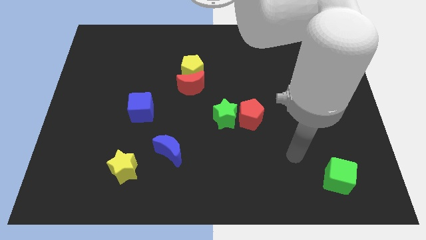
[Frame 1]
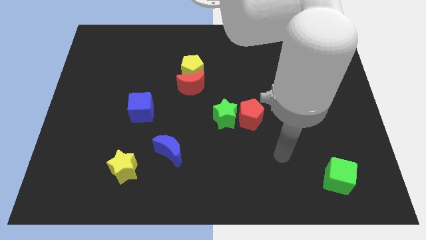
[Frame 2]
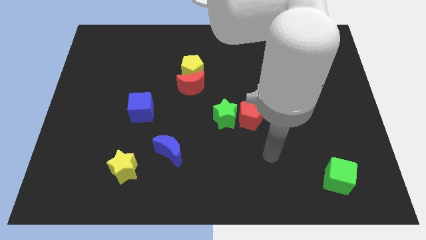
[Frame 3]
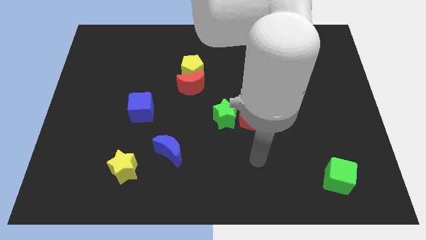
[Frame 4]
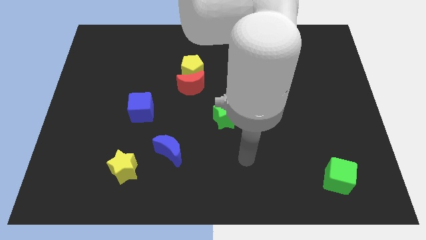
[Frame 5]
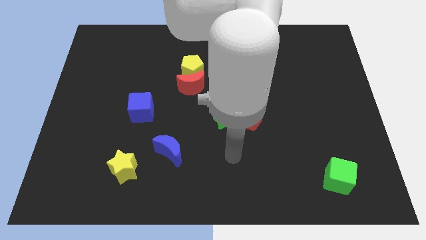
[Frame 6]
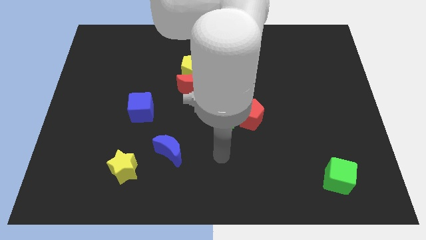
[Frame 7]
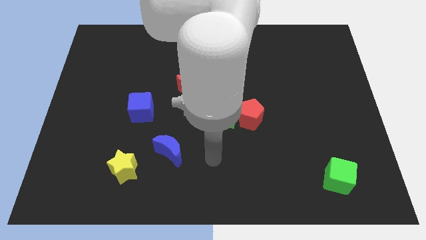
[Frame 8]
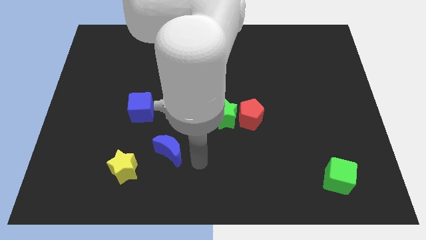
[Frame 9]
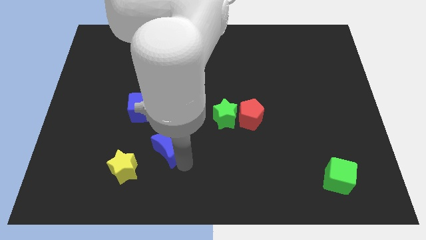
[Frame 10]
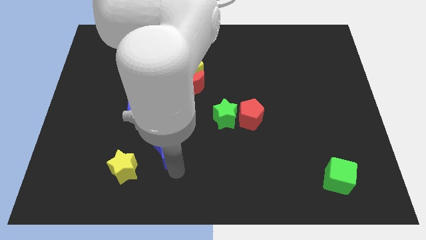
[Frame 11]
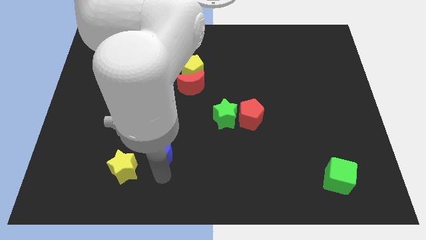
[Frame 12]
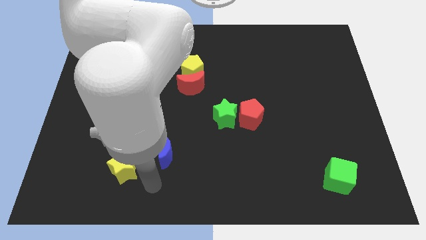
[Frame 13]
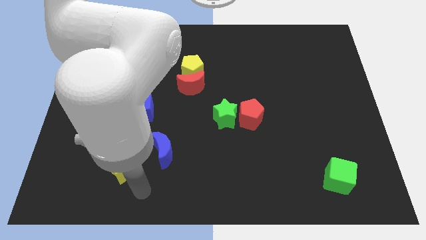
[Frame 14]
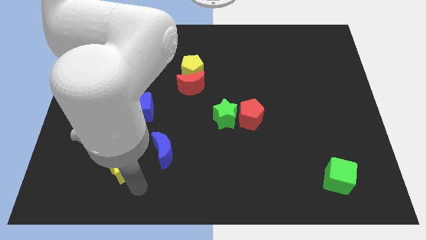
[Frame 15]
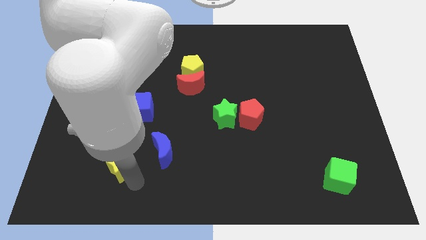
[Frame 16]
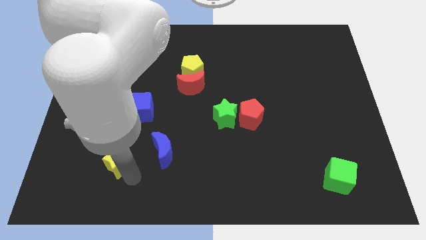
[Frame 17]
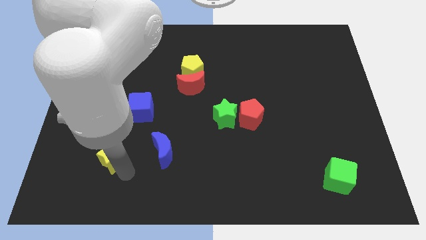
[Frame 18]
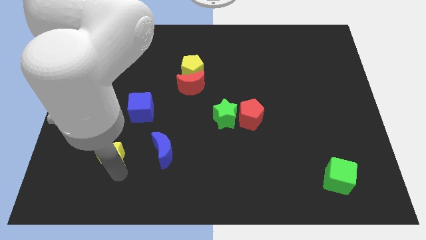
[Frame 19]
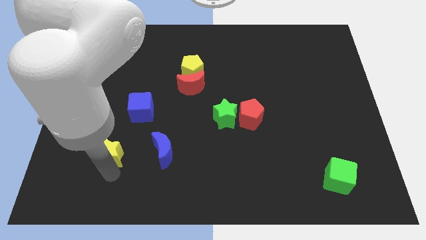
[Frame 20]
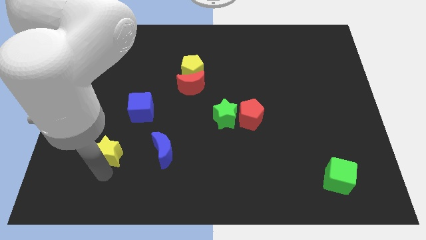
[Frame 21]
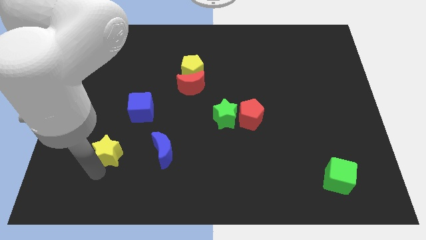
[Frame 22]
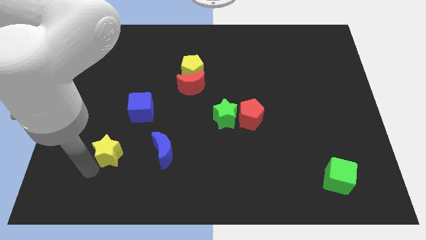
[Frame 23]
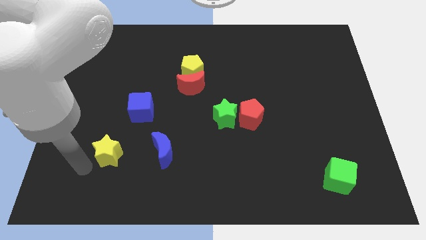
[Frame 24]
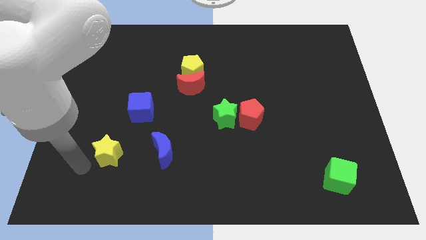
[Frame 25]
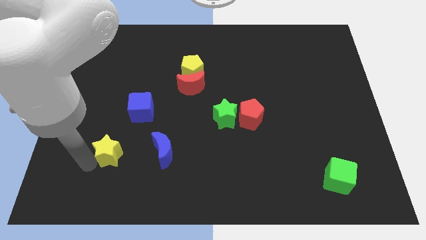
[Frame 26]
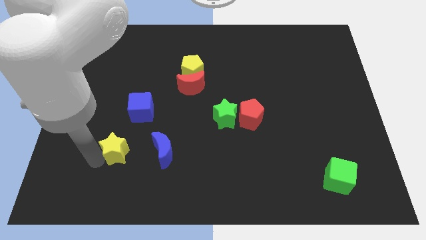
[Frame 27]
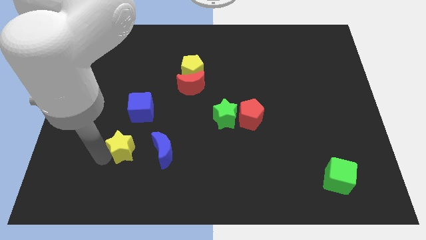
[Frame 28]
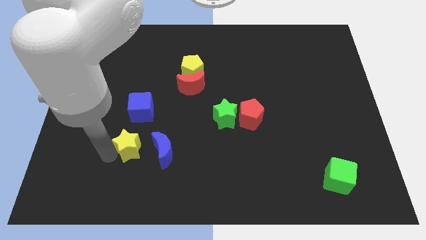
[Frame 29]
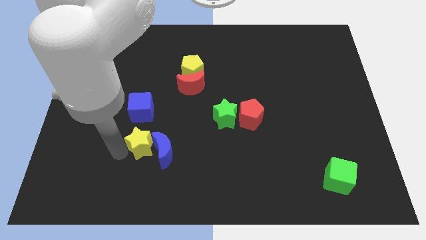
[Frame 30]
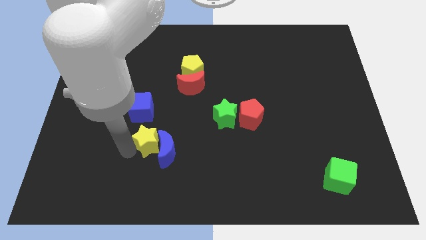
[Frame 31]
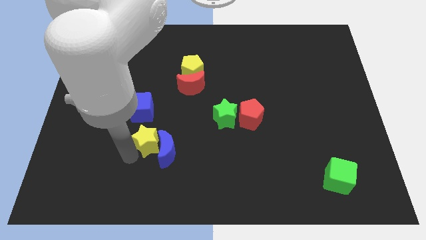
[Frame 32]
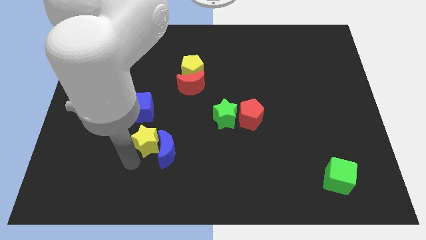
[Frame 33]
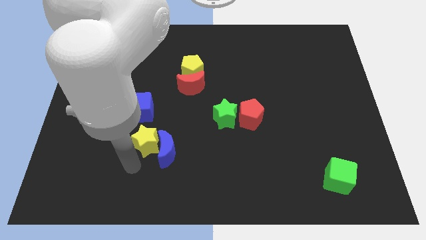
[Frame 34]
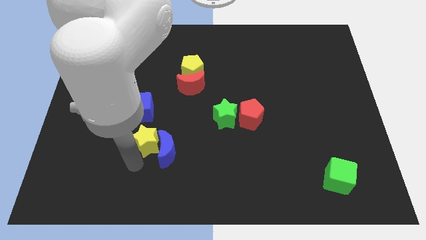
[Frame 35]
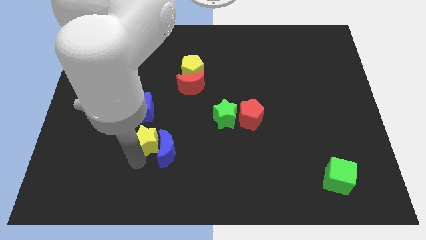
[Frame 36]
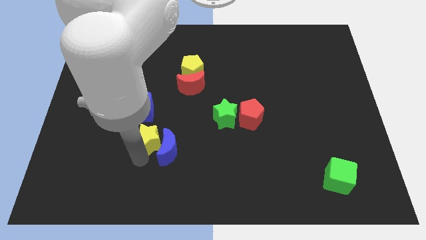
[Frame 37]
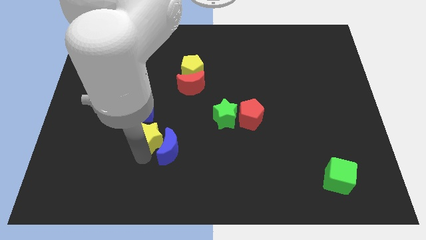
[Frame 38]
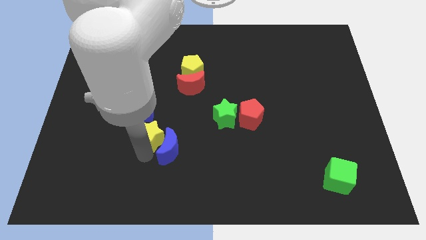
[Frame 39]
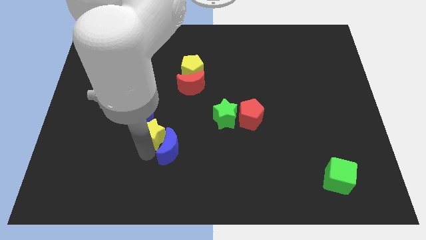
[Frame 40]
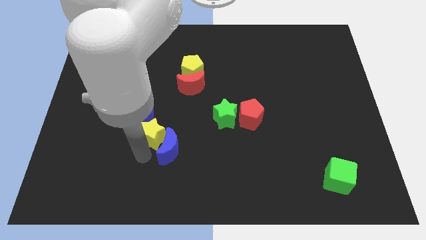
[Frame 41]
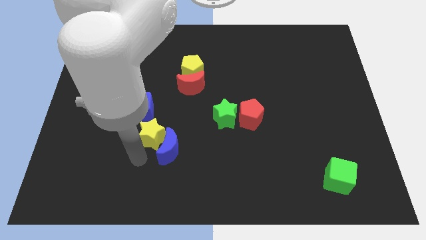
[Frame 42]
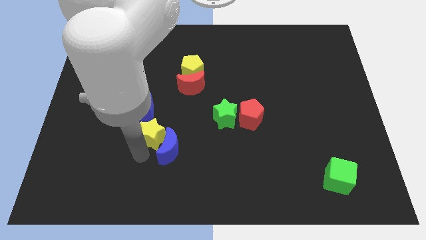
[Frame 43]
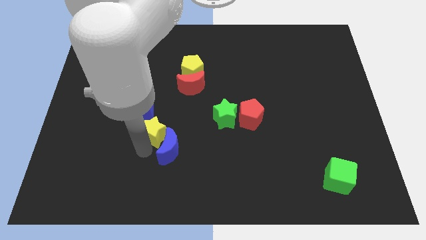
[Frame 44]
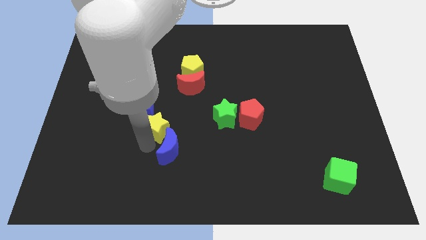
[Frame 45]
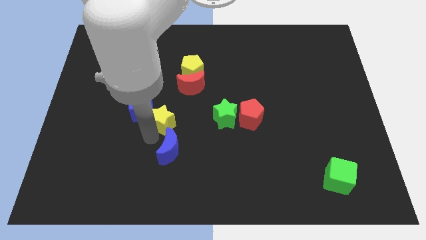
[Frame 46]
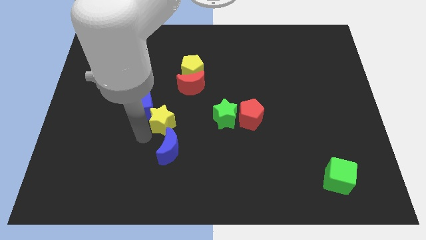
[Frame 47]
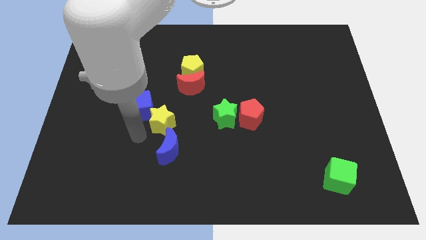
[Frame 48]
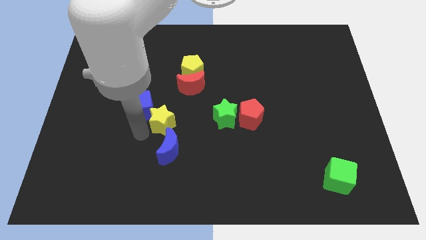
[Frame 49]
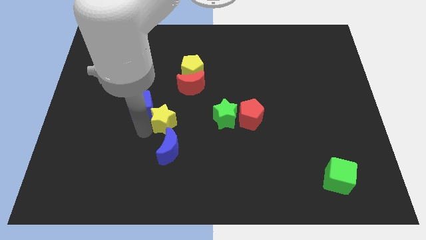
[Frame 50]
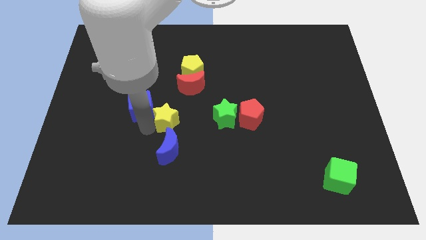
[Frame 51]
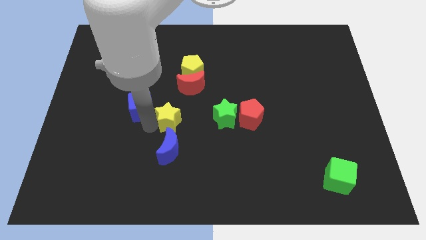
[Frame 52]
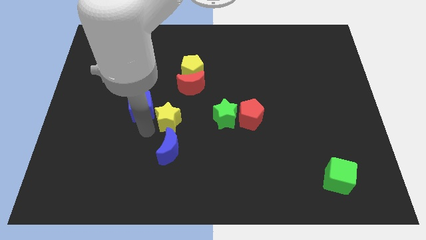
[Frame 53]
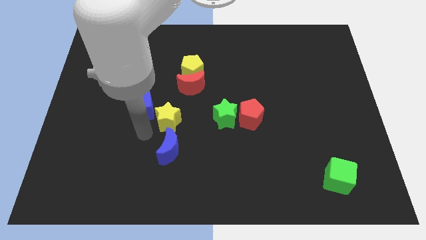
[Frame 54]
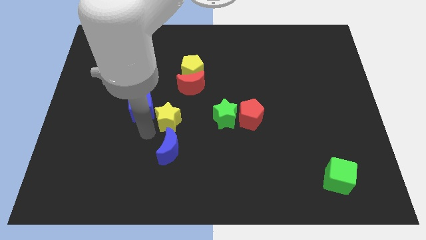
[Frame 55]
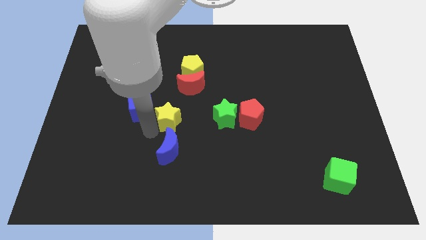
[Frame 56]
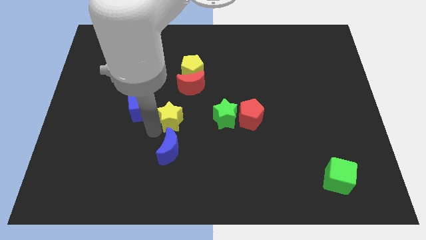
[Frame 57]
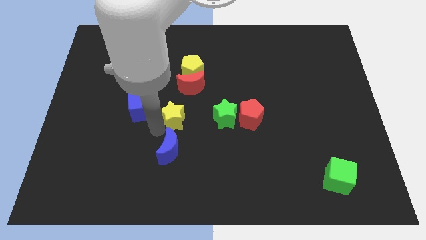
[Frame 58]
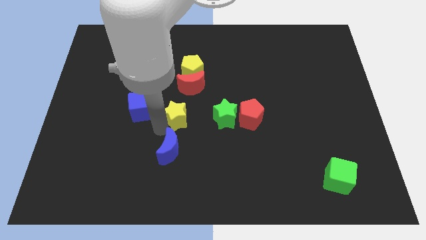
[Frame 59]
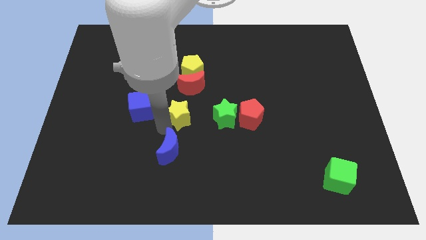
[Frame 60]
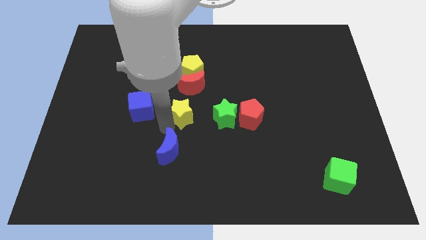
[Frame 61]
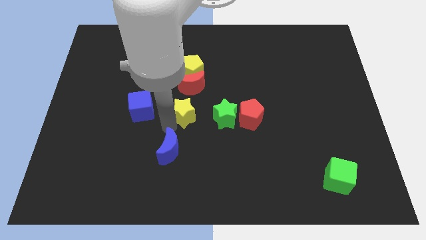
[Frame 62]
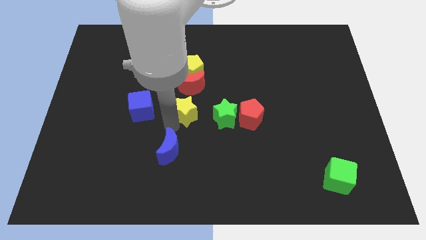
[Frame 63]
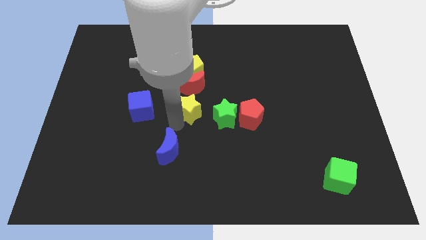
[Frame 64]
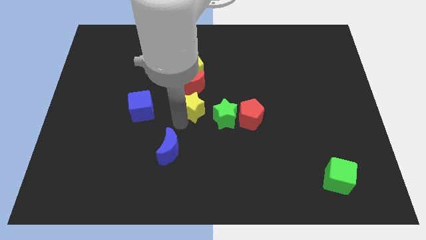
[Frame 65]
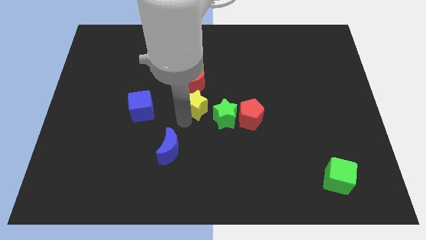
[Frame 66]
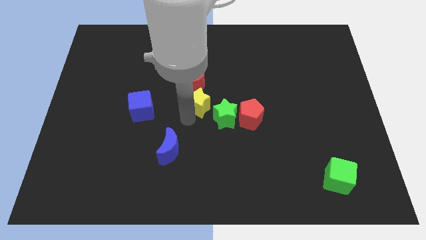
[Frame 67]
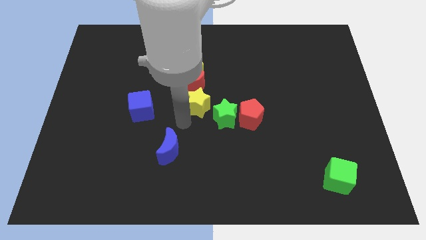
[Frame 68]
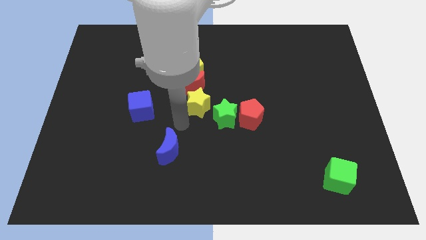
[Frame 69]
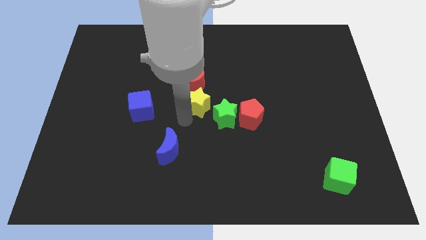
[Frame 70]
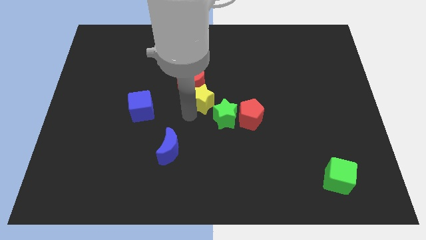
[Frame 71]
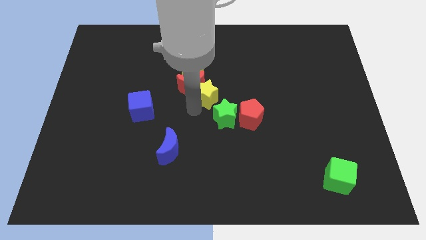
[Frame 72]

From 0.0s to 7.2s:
put the yellow star diagonally down and to the right of the yellow pentagon
